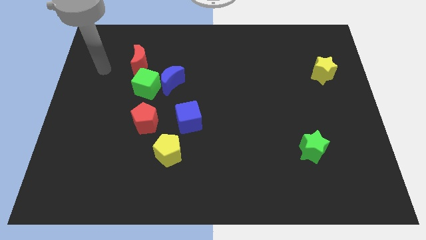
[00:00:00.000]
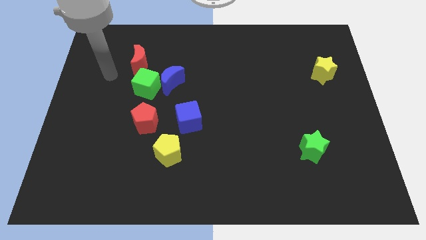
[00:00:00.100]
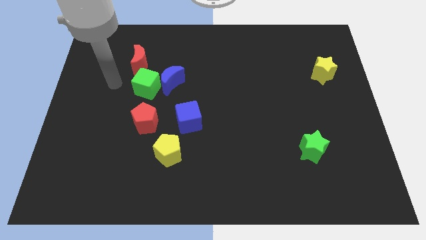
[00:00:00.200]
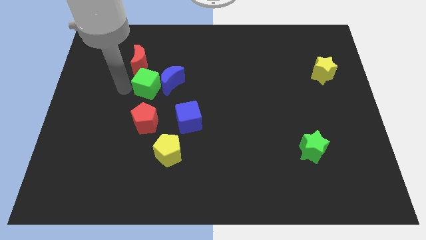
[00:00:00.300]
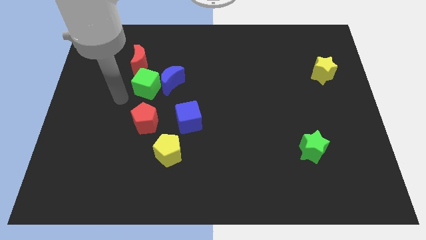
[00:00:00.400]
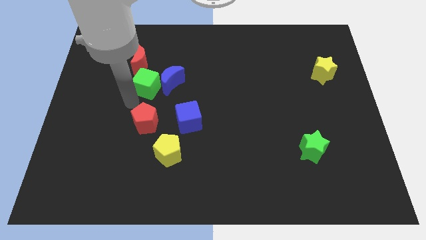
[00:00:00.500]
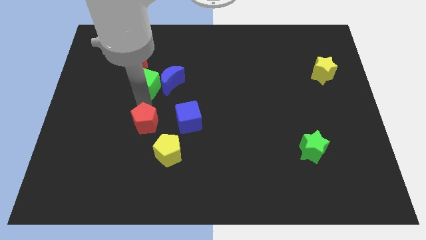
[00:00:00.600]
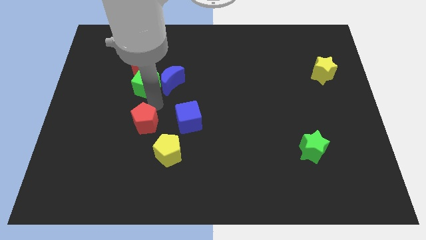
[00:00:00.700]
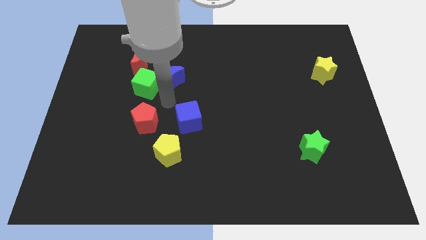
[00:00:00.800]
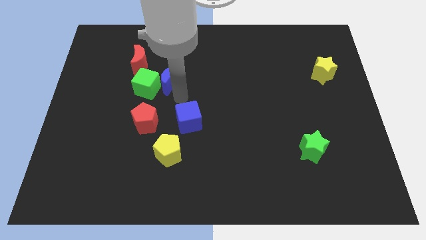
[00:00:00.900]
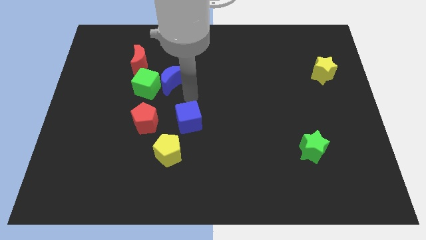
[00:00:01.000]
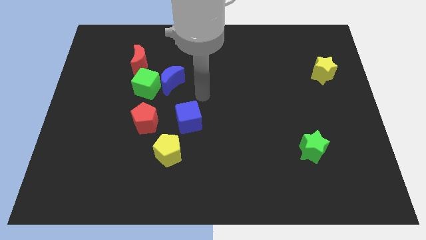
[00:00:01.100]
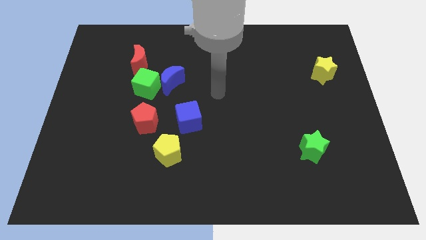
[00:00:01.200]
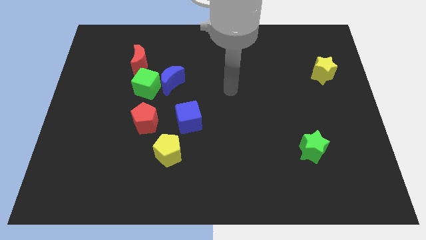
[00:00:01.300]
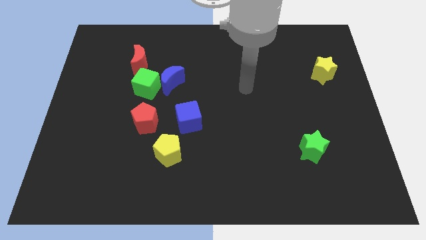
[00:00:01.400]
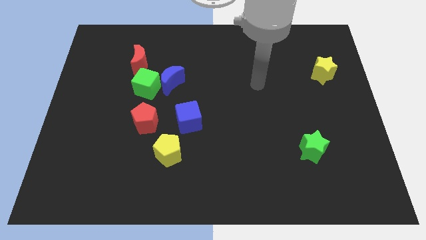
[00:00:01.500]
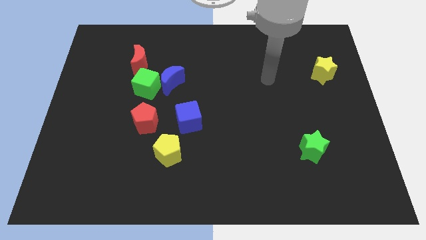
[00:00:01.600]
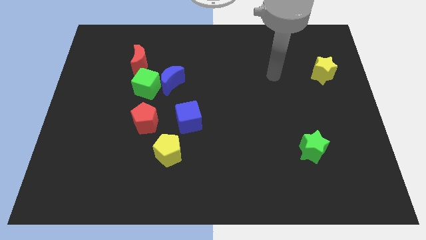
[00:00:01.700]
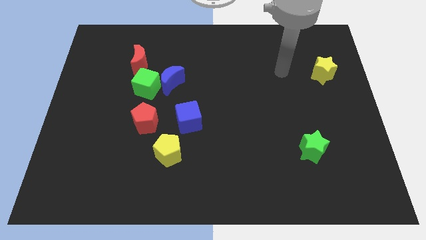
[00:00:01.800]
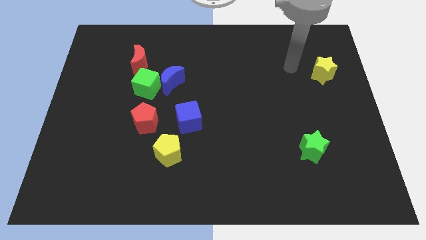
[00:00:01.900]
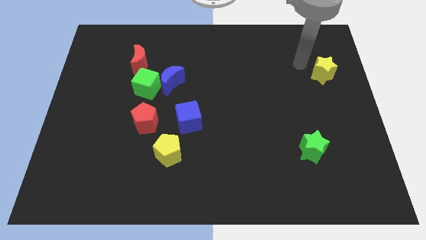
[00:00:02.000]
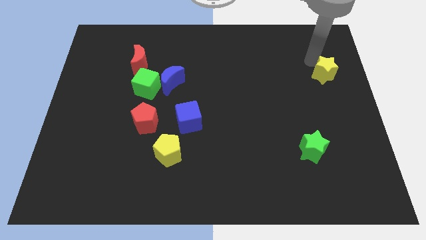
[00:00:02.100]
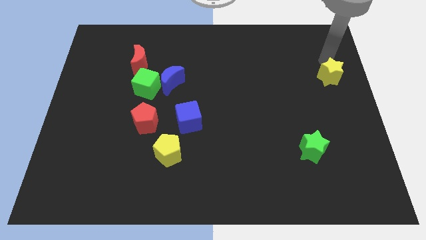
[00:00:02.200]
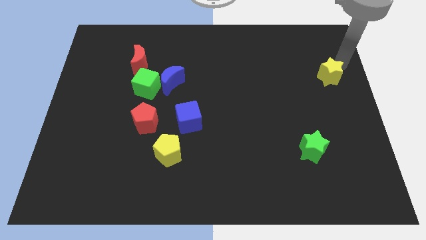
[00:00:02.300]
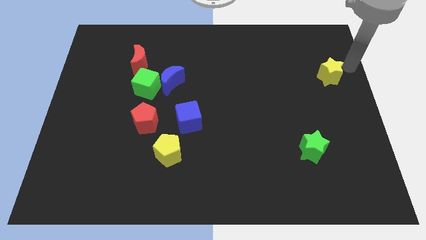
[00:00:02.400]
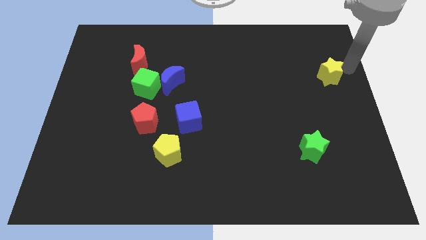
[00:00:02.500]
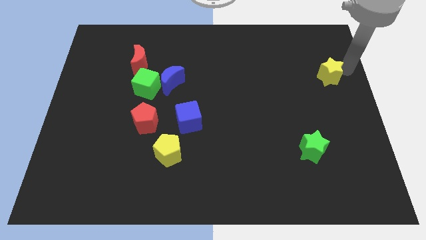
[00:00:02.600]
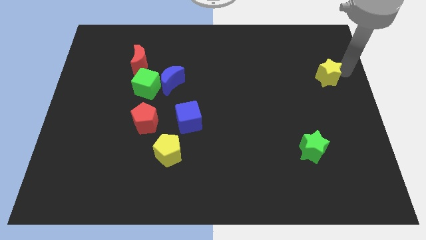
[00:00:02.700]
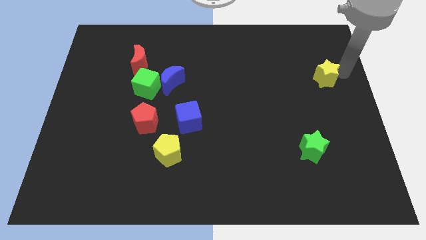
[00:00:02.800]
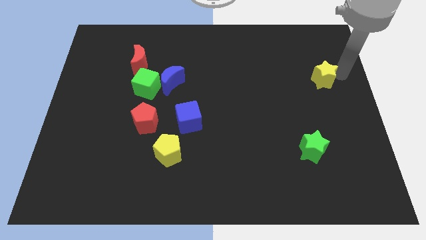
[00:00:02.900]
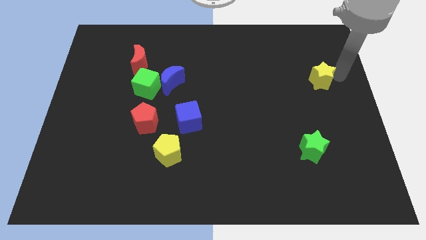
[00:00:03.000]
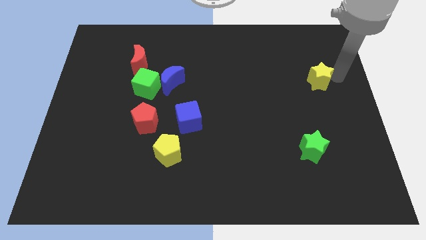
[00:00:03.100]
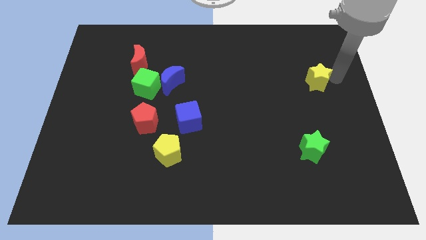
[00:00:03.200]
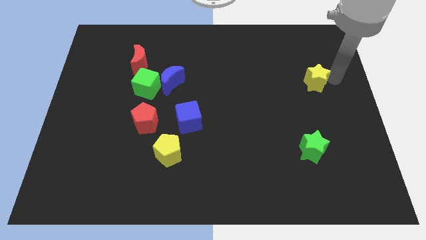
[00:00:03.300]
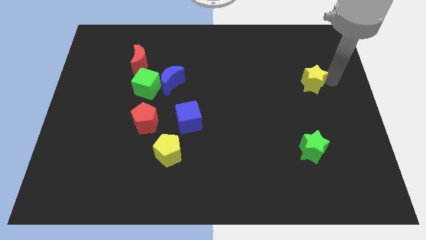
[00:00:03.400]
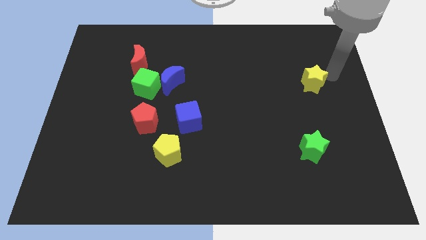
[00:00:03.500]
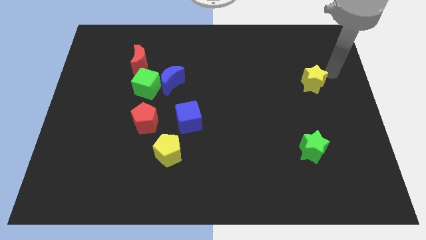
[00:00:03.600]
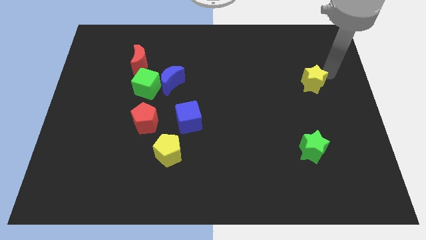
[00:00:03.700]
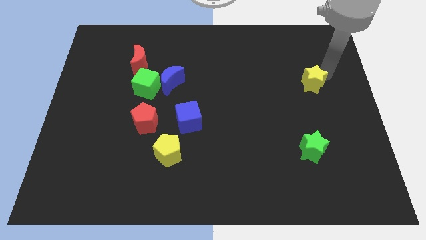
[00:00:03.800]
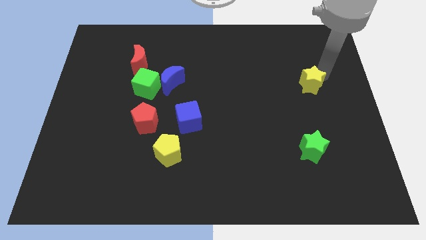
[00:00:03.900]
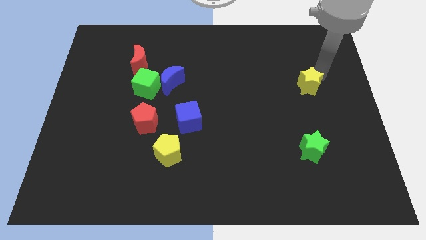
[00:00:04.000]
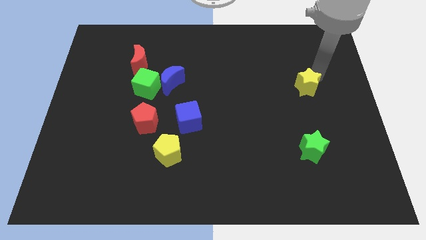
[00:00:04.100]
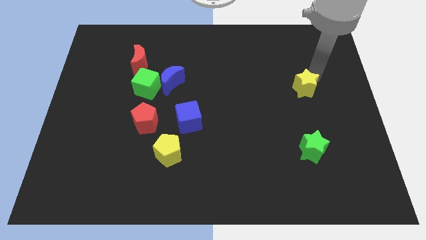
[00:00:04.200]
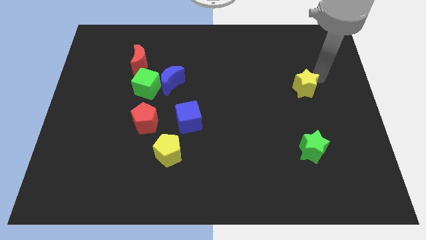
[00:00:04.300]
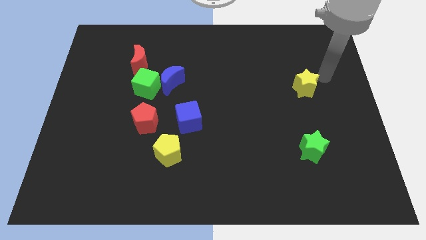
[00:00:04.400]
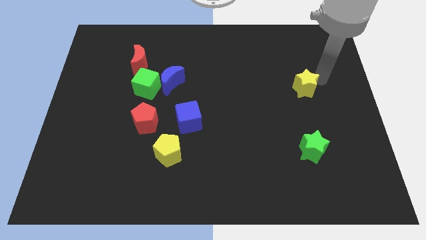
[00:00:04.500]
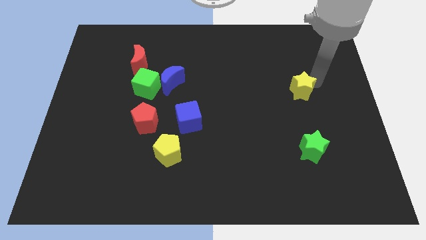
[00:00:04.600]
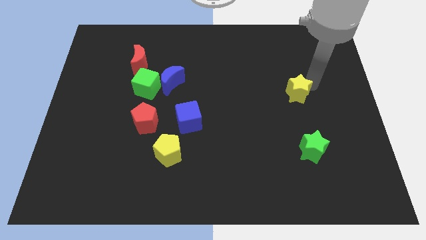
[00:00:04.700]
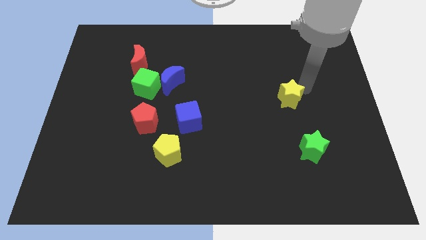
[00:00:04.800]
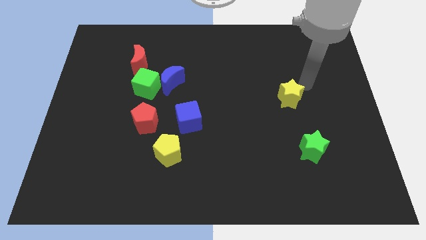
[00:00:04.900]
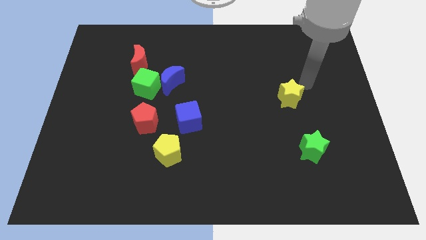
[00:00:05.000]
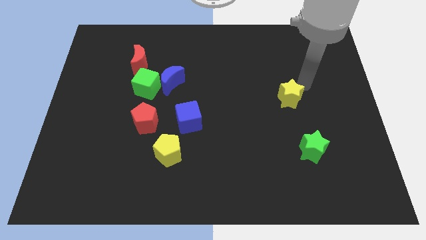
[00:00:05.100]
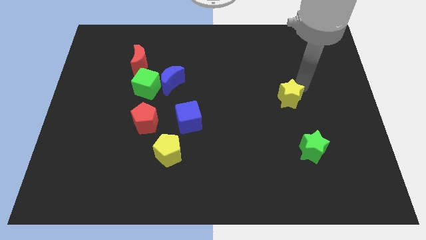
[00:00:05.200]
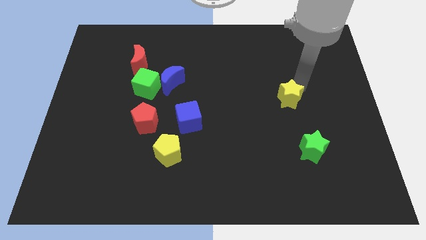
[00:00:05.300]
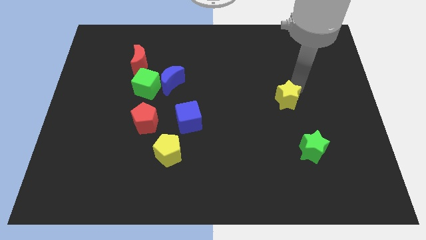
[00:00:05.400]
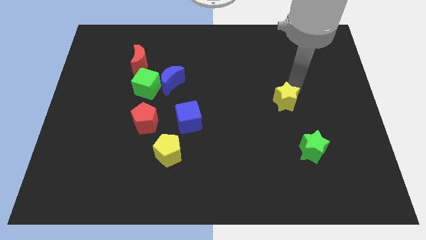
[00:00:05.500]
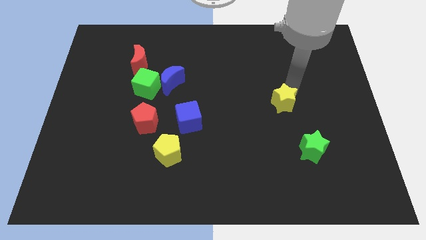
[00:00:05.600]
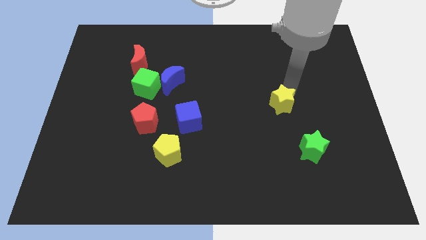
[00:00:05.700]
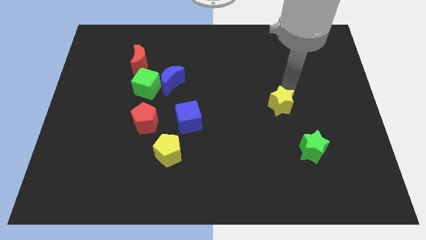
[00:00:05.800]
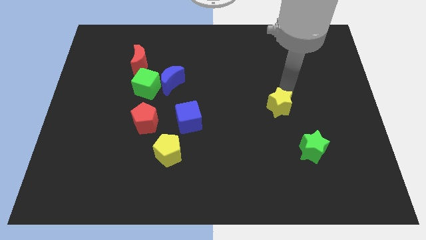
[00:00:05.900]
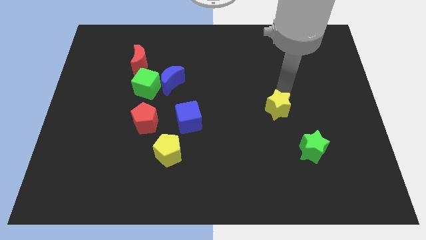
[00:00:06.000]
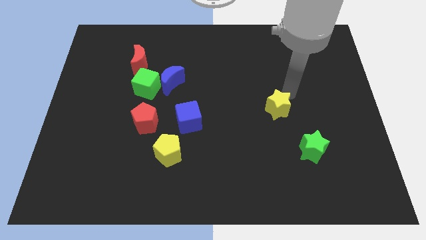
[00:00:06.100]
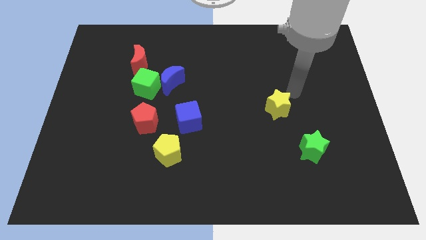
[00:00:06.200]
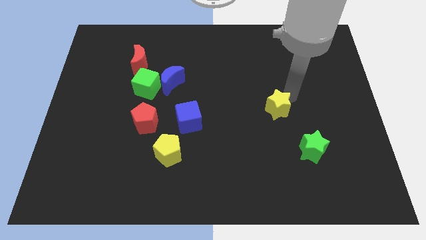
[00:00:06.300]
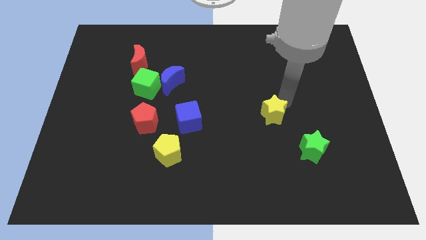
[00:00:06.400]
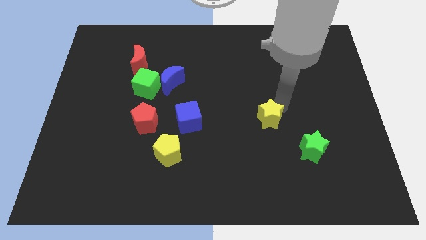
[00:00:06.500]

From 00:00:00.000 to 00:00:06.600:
push the yellow star diagonally down and to the left

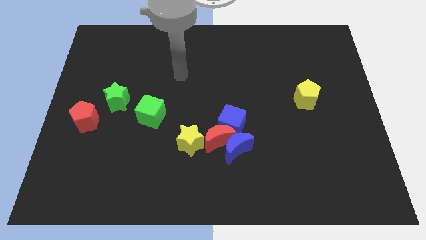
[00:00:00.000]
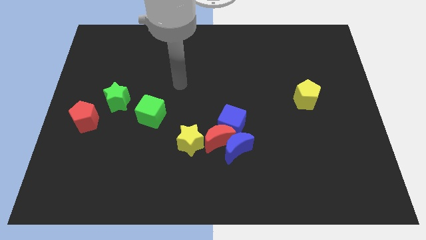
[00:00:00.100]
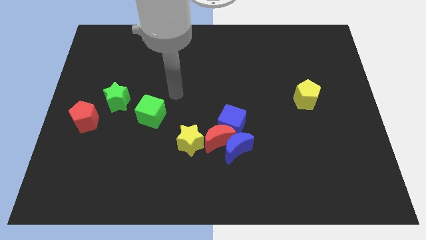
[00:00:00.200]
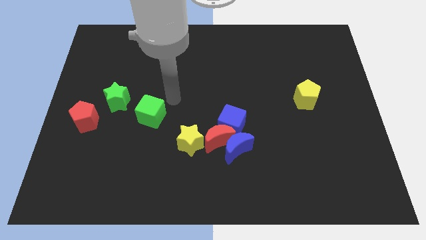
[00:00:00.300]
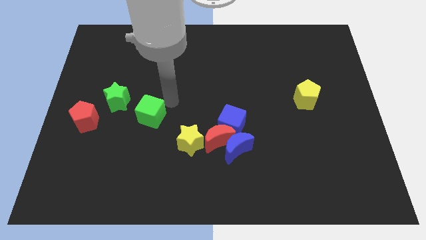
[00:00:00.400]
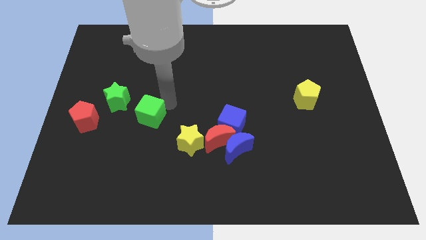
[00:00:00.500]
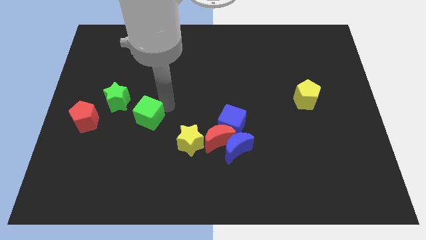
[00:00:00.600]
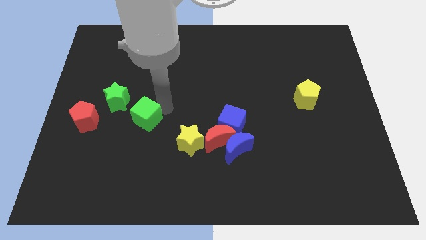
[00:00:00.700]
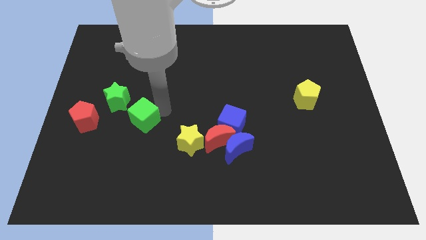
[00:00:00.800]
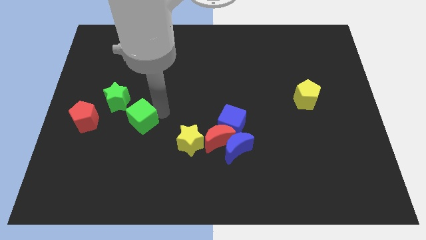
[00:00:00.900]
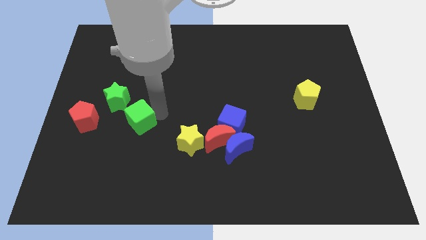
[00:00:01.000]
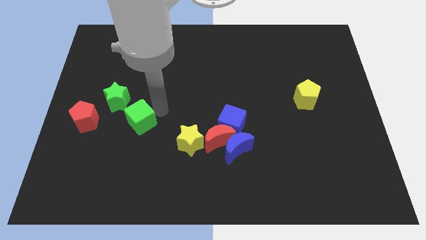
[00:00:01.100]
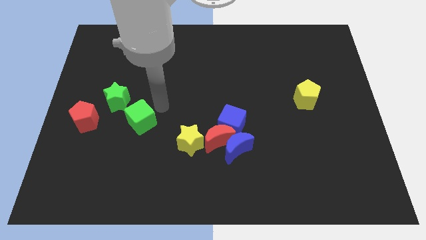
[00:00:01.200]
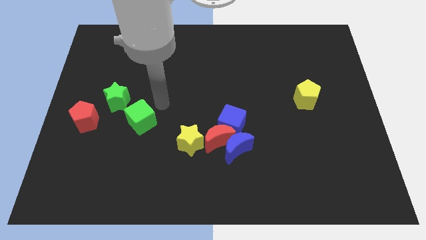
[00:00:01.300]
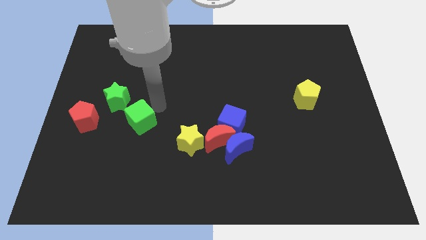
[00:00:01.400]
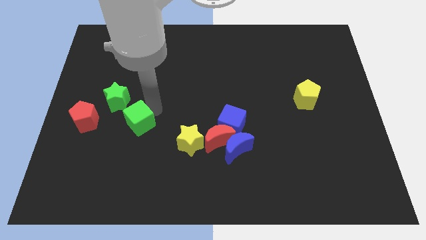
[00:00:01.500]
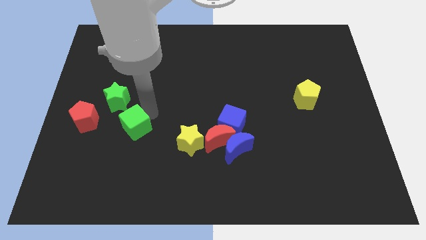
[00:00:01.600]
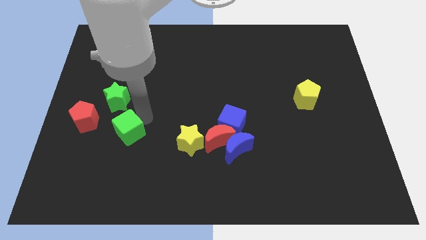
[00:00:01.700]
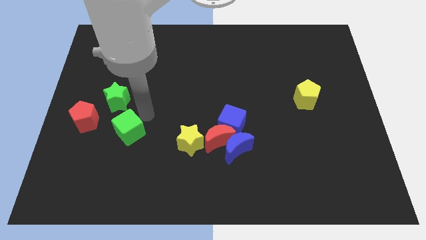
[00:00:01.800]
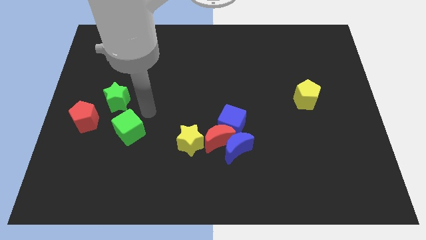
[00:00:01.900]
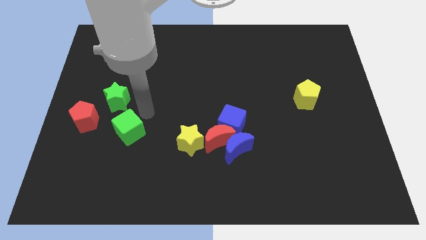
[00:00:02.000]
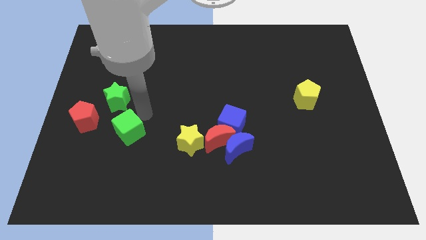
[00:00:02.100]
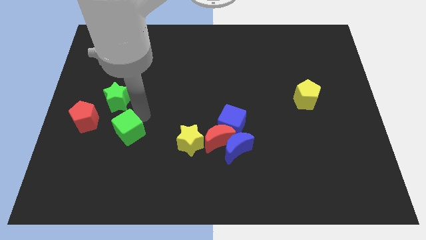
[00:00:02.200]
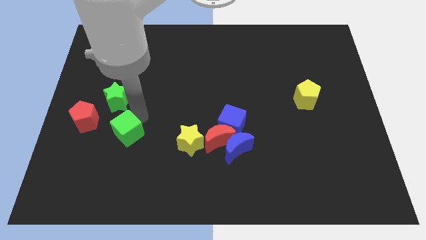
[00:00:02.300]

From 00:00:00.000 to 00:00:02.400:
slide the green cube a little bit down and then to the left
